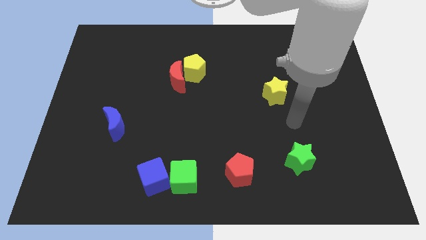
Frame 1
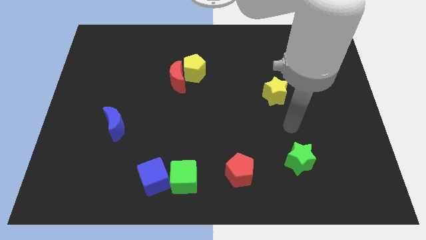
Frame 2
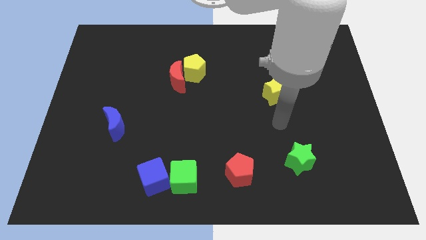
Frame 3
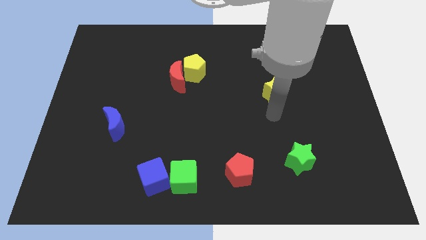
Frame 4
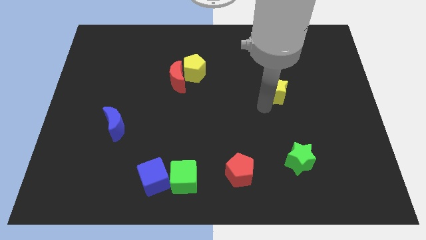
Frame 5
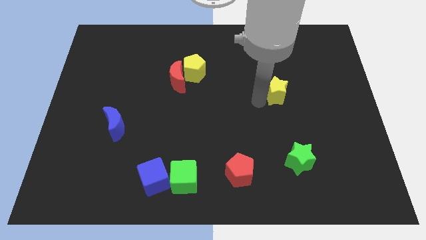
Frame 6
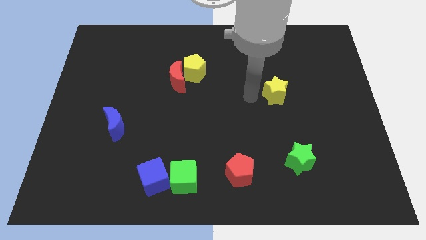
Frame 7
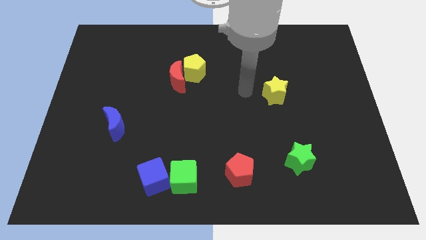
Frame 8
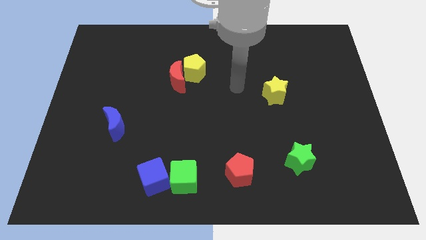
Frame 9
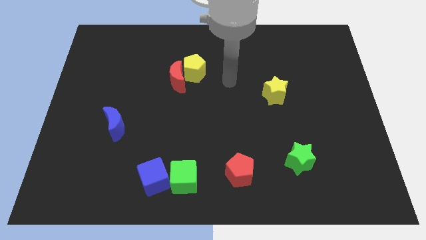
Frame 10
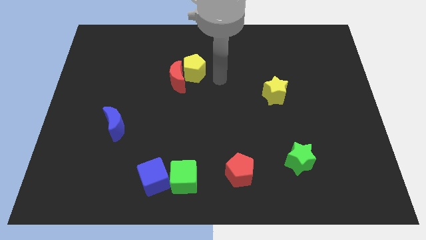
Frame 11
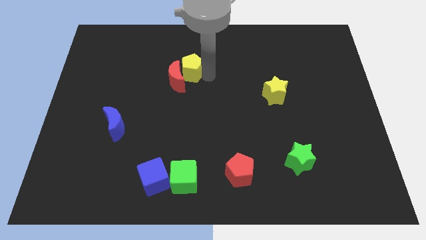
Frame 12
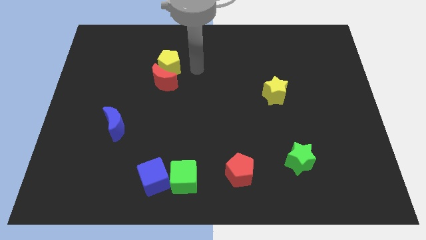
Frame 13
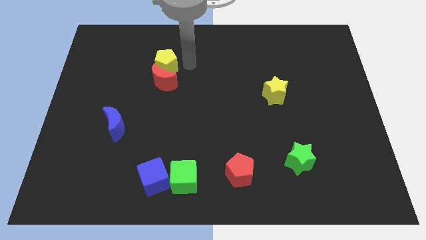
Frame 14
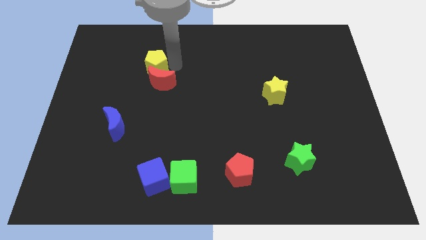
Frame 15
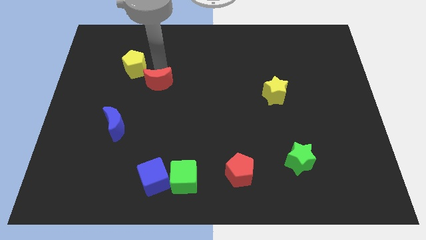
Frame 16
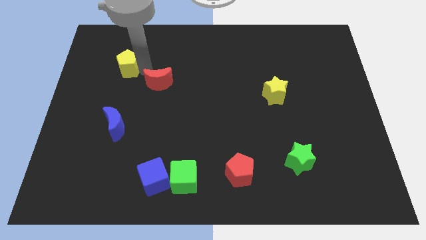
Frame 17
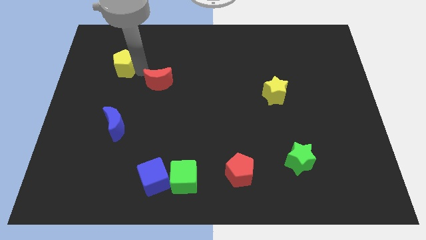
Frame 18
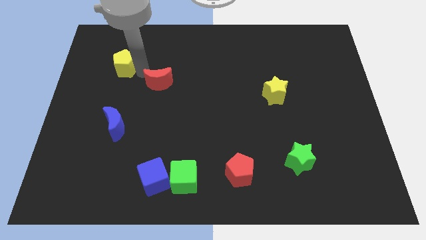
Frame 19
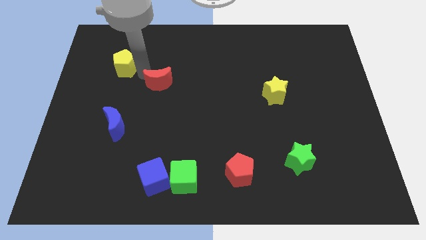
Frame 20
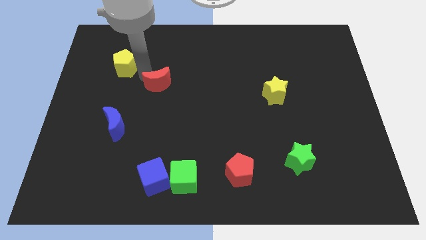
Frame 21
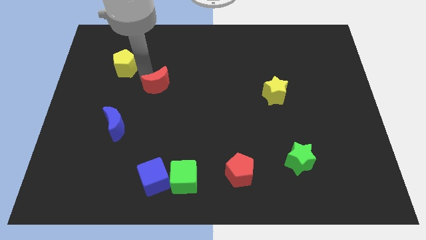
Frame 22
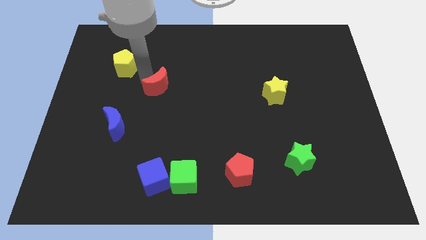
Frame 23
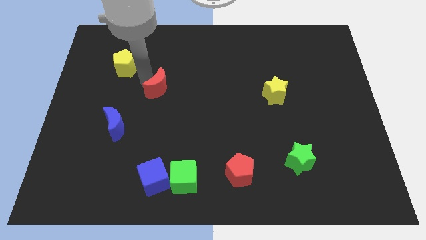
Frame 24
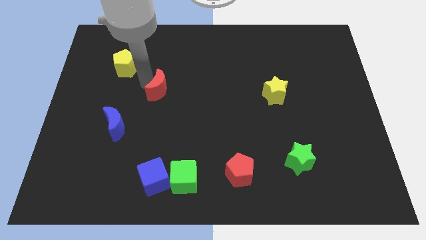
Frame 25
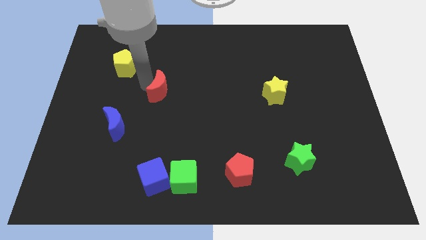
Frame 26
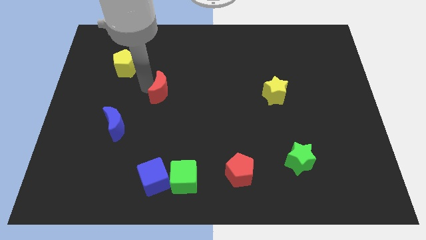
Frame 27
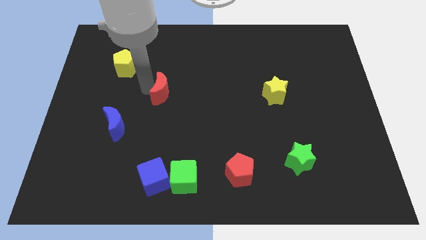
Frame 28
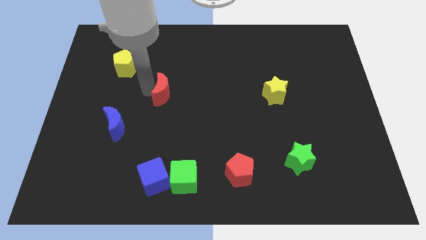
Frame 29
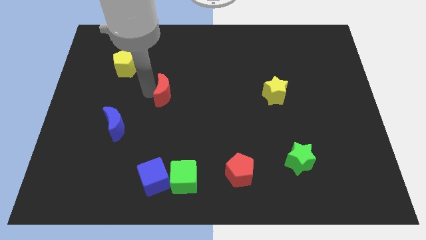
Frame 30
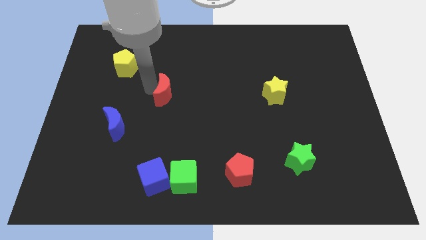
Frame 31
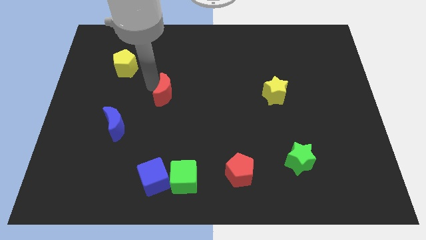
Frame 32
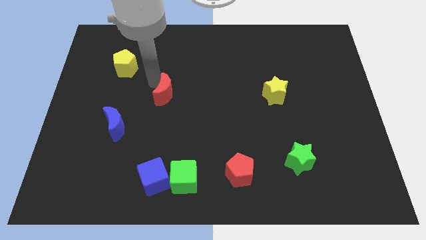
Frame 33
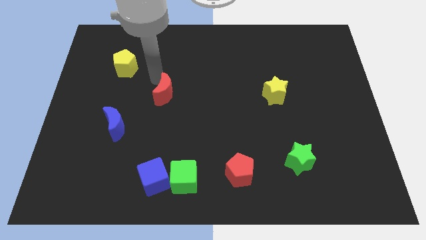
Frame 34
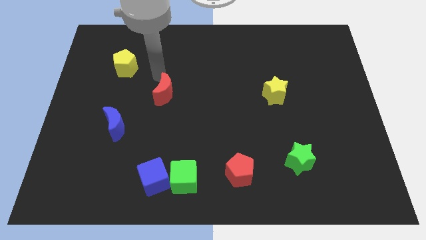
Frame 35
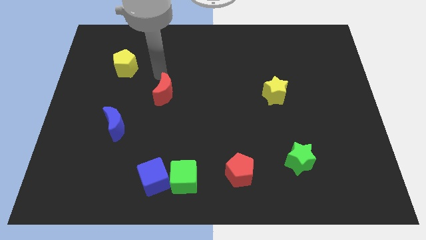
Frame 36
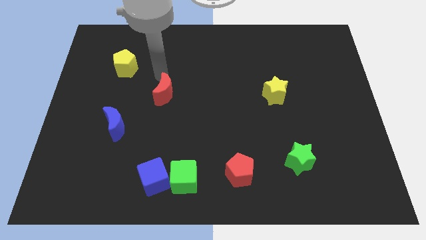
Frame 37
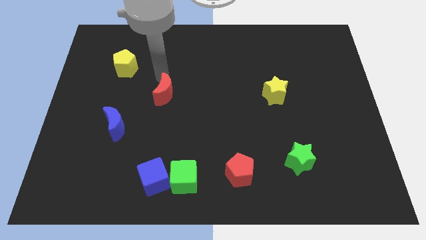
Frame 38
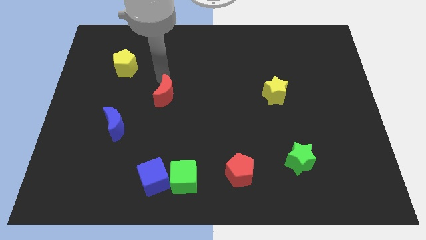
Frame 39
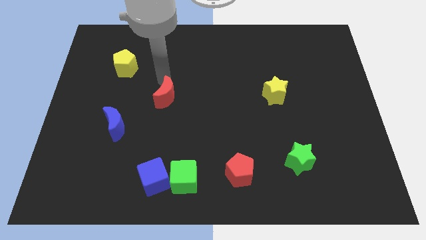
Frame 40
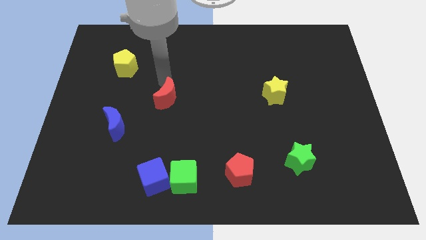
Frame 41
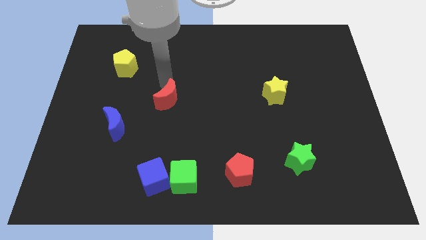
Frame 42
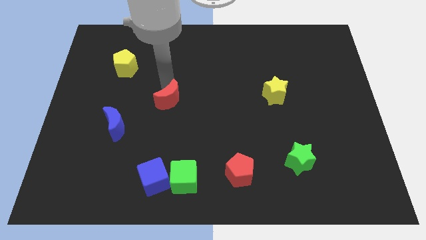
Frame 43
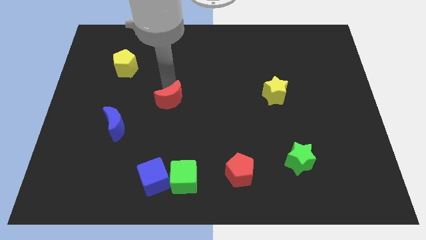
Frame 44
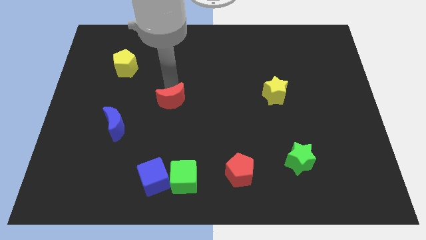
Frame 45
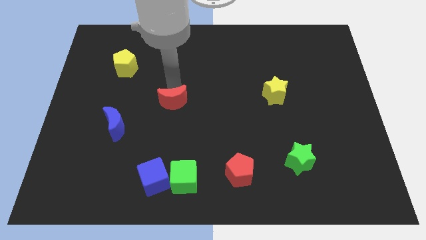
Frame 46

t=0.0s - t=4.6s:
push the red moon a little downwards

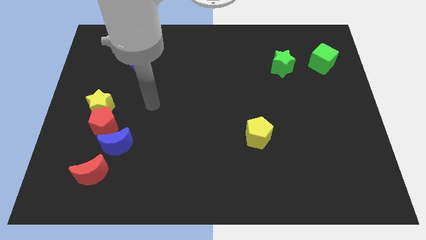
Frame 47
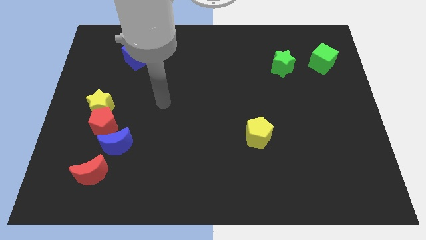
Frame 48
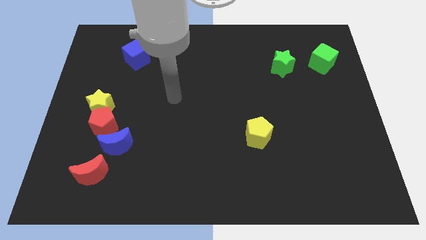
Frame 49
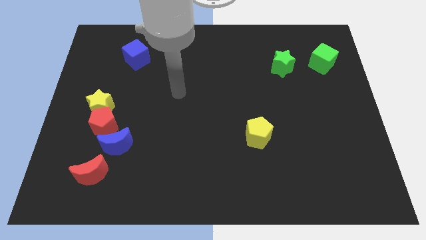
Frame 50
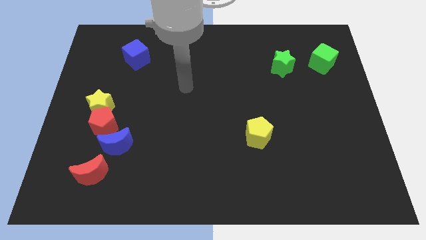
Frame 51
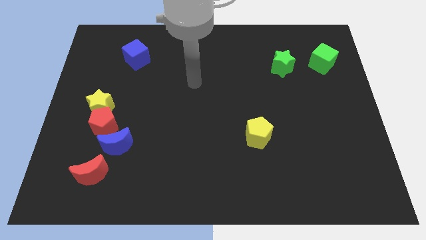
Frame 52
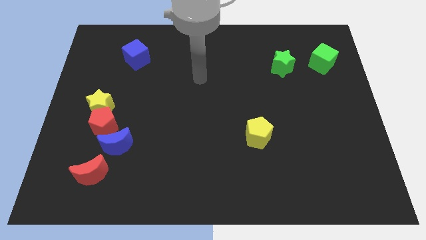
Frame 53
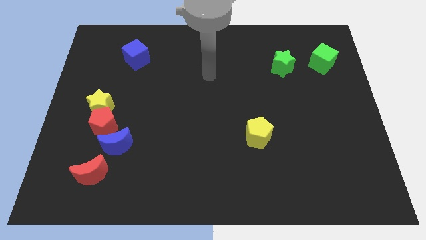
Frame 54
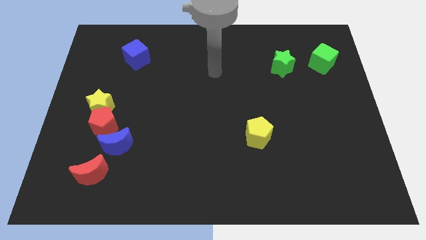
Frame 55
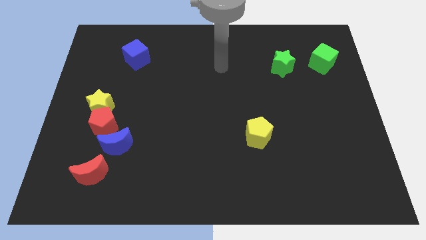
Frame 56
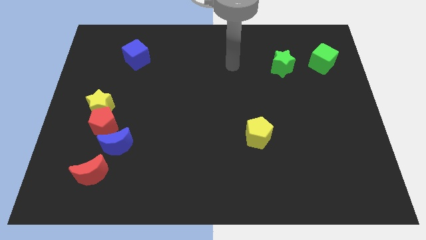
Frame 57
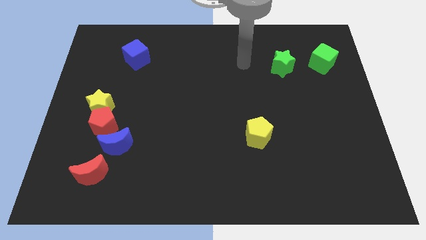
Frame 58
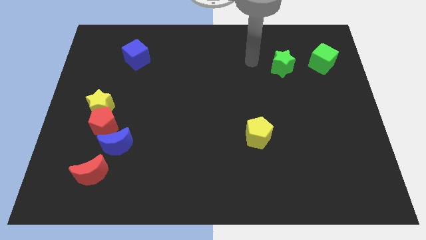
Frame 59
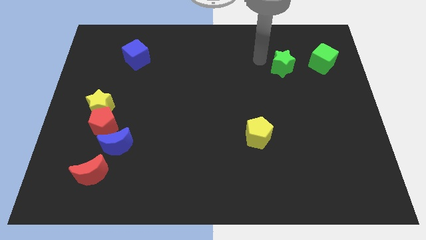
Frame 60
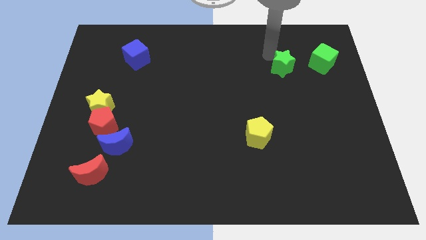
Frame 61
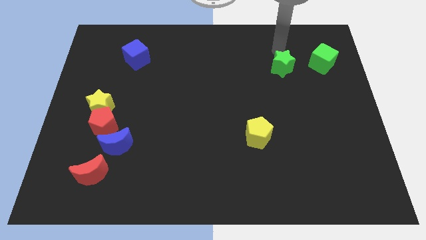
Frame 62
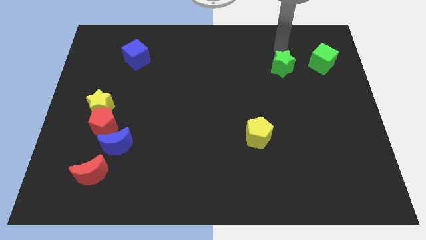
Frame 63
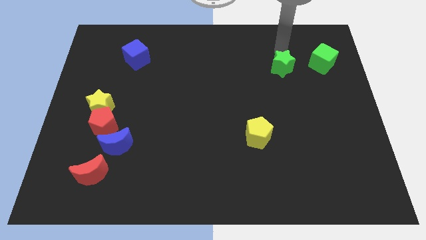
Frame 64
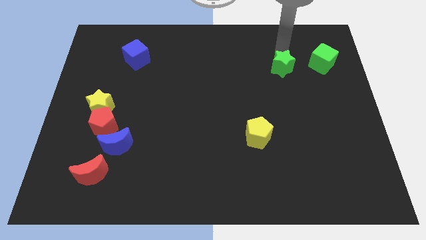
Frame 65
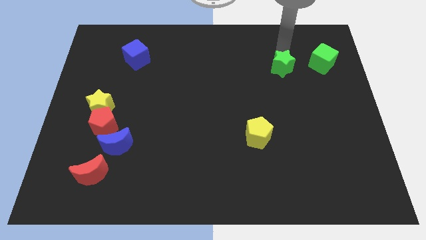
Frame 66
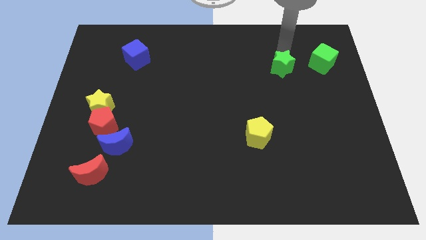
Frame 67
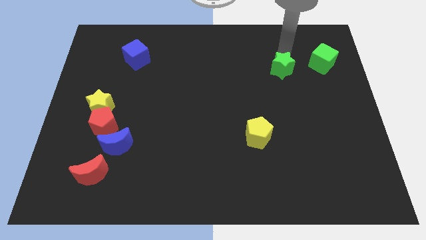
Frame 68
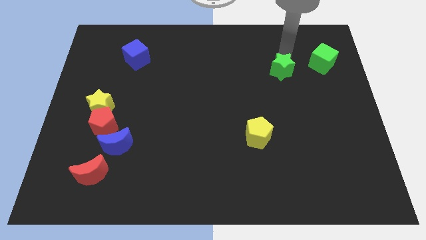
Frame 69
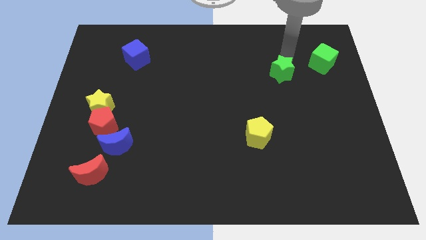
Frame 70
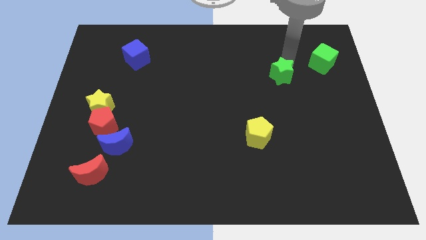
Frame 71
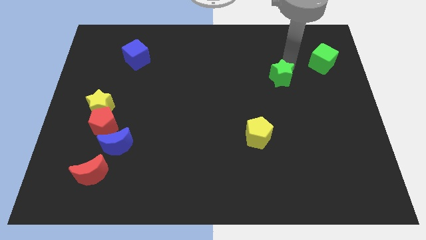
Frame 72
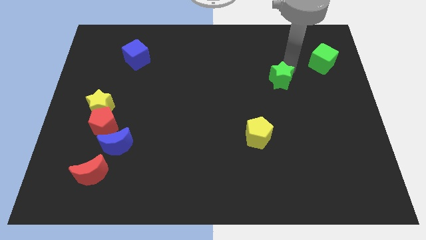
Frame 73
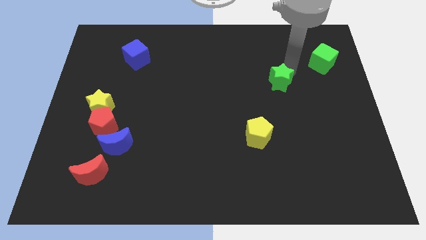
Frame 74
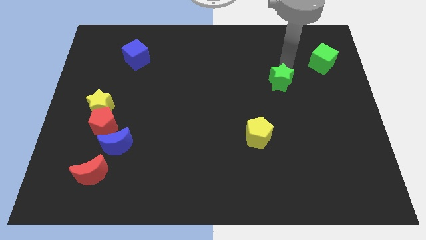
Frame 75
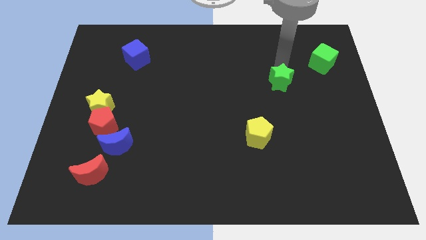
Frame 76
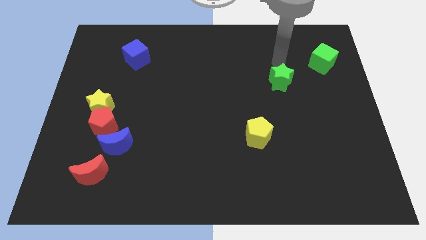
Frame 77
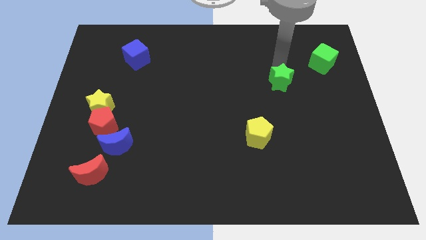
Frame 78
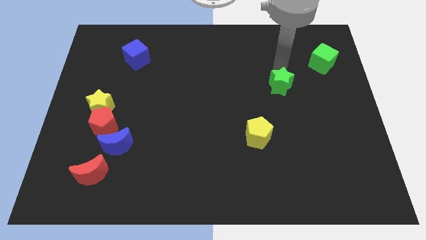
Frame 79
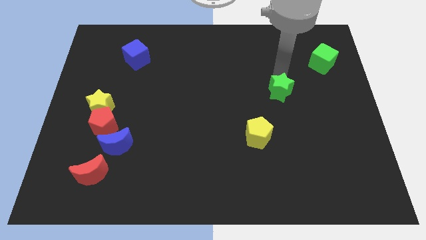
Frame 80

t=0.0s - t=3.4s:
push the green star down slightly
